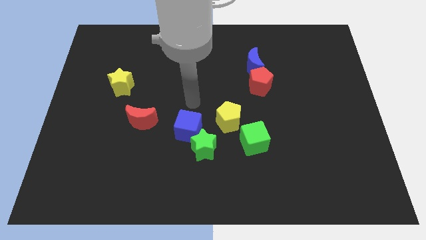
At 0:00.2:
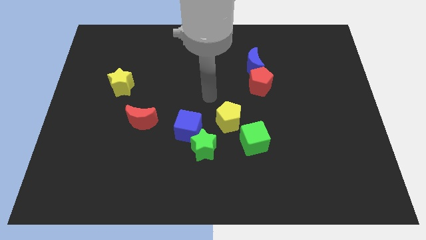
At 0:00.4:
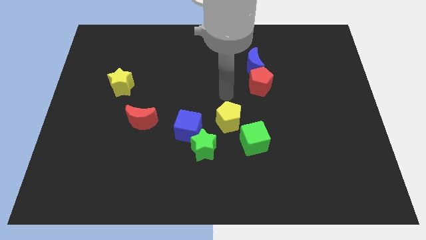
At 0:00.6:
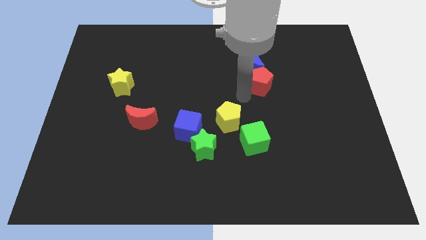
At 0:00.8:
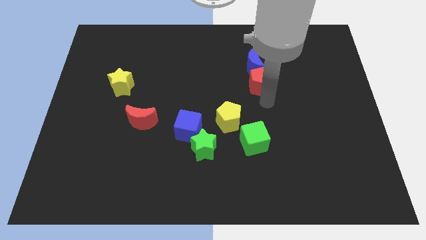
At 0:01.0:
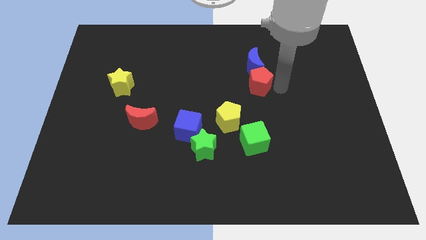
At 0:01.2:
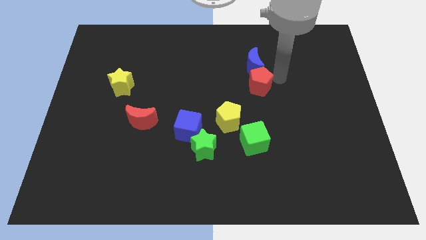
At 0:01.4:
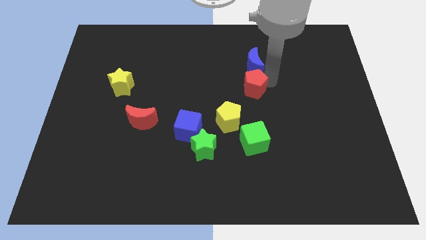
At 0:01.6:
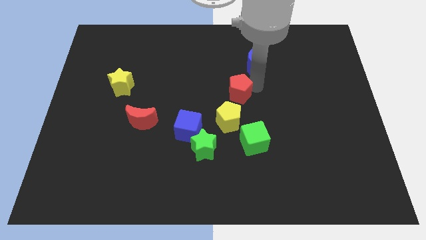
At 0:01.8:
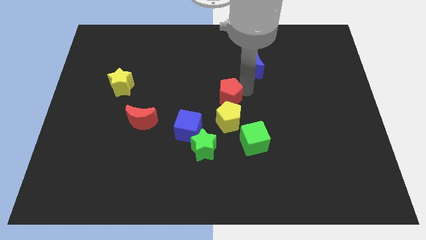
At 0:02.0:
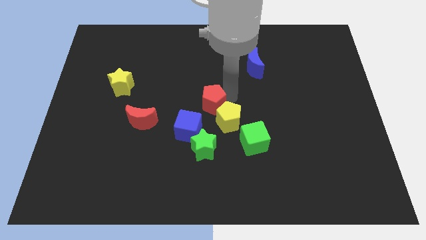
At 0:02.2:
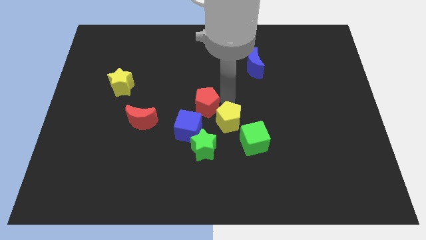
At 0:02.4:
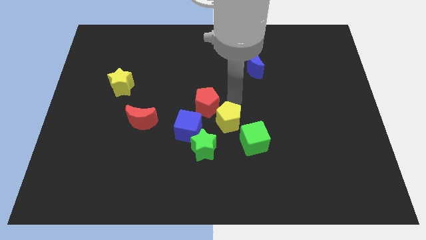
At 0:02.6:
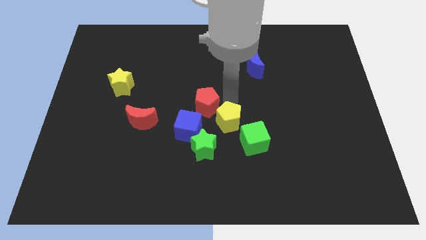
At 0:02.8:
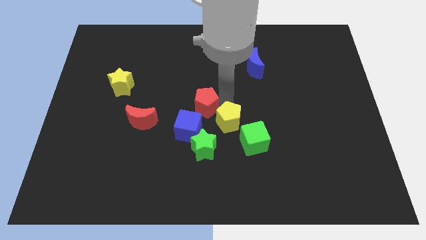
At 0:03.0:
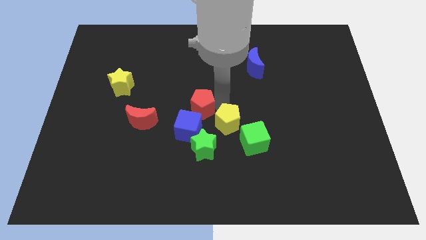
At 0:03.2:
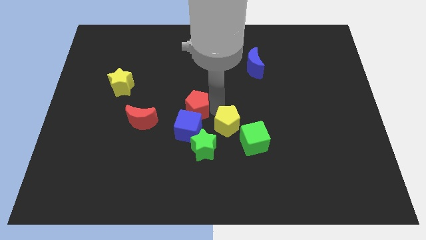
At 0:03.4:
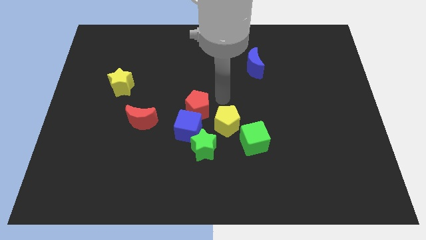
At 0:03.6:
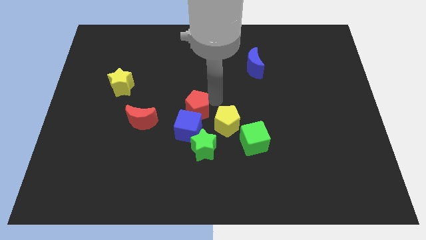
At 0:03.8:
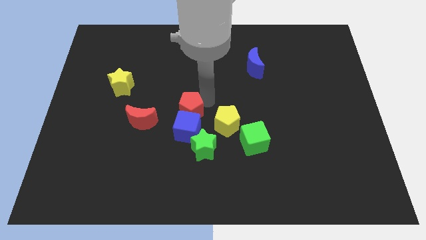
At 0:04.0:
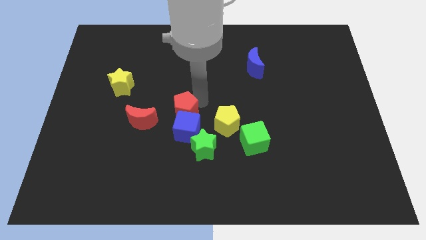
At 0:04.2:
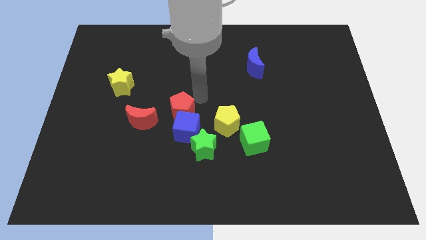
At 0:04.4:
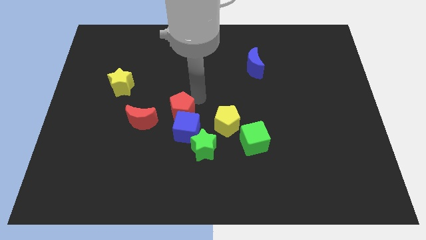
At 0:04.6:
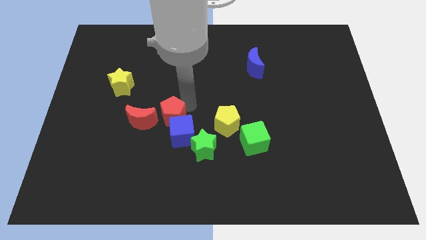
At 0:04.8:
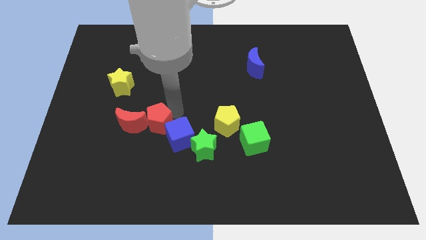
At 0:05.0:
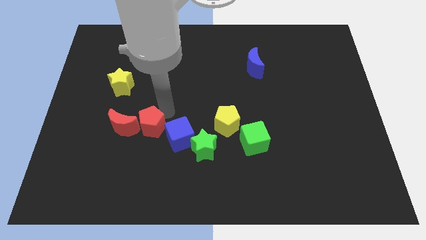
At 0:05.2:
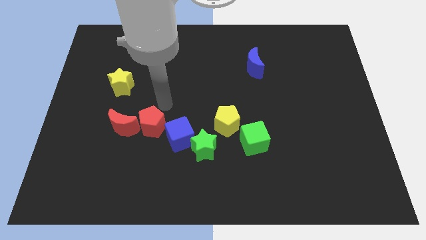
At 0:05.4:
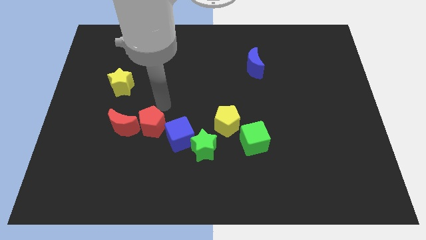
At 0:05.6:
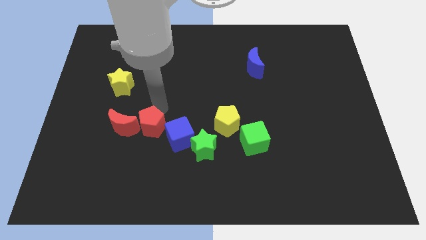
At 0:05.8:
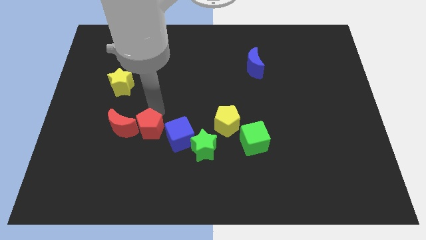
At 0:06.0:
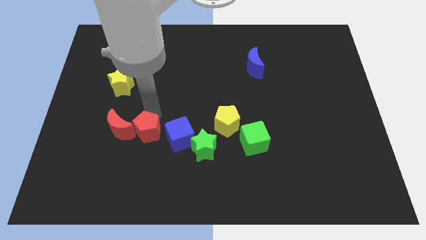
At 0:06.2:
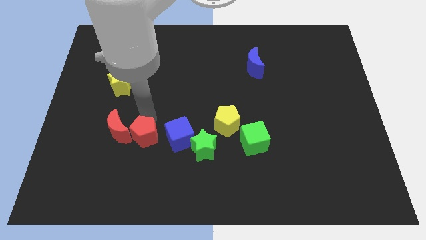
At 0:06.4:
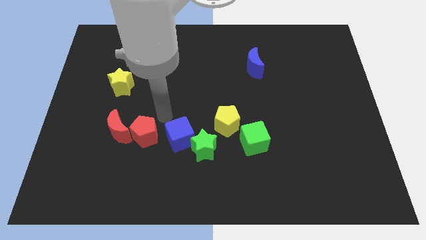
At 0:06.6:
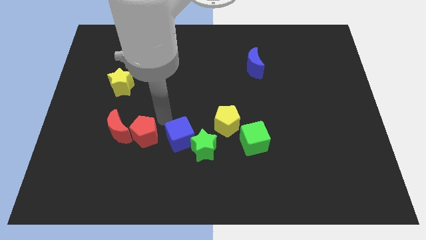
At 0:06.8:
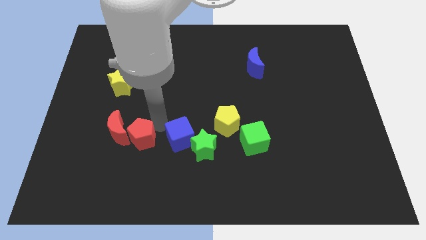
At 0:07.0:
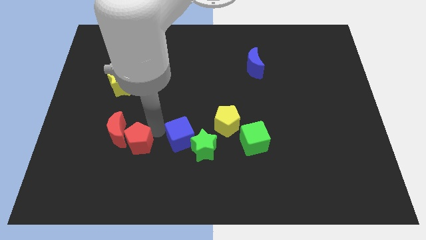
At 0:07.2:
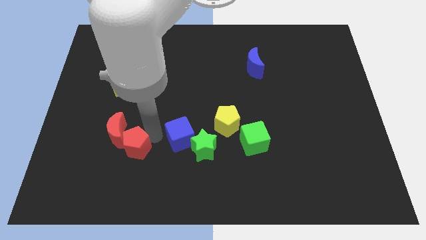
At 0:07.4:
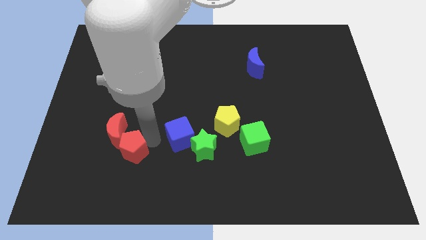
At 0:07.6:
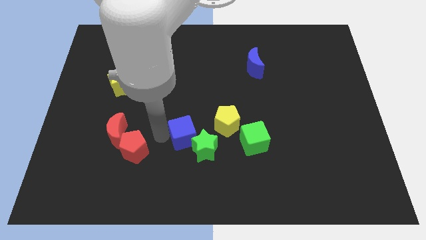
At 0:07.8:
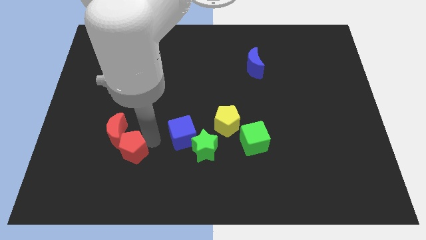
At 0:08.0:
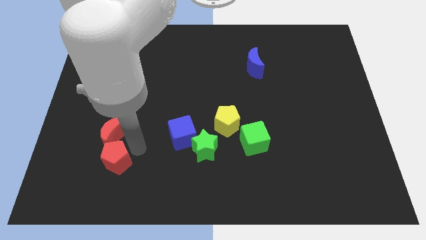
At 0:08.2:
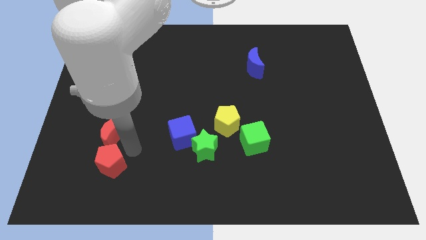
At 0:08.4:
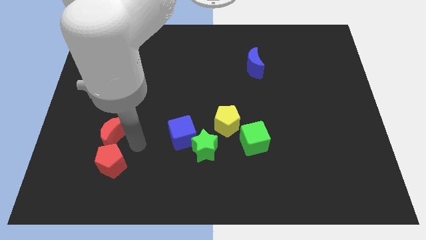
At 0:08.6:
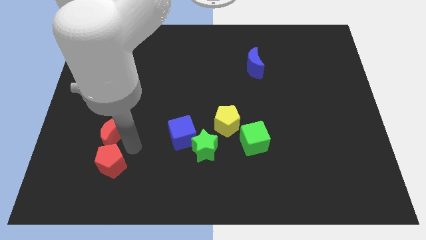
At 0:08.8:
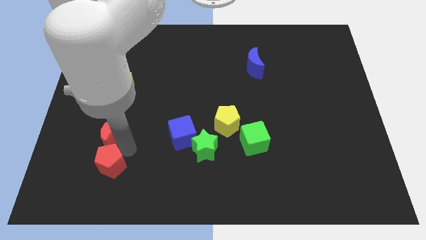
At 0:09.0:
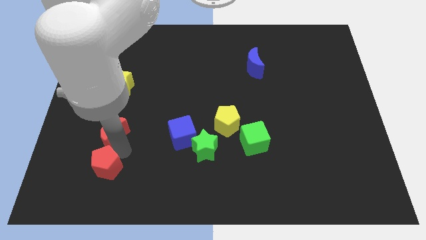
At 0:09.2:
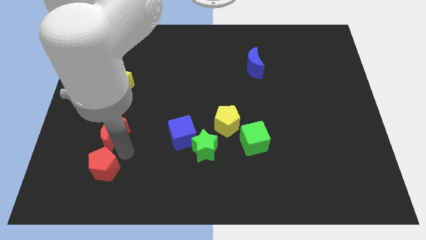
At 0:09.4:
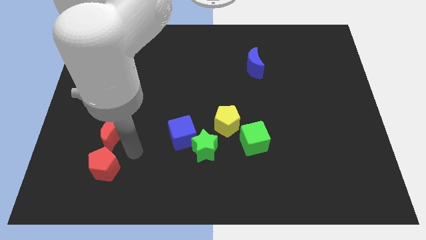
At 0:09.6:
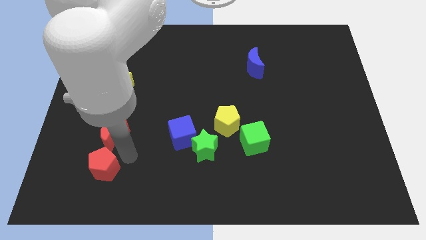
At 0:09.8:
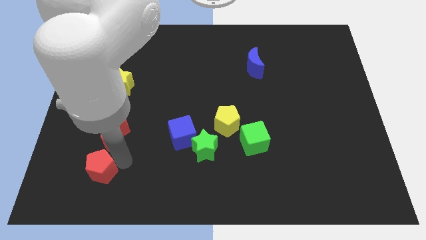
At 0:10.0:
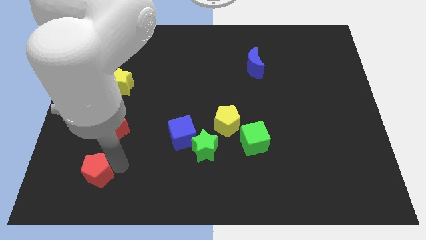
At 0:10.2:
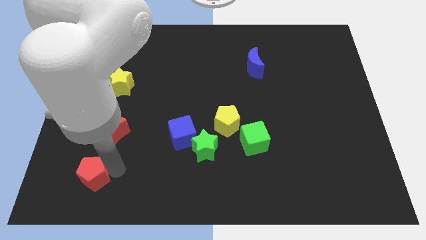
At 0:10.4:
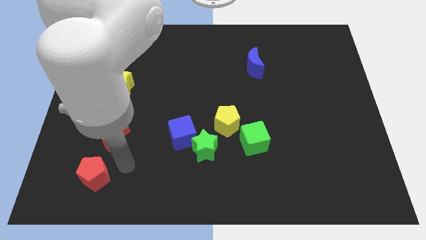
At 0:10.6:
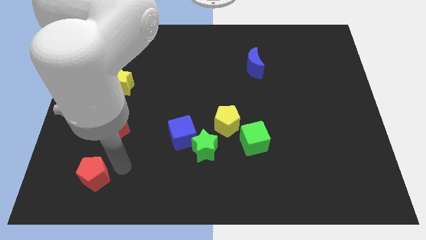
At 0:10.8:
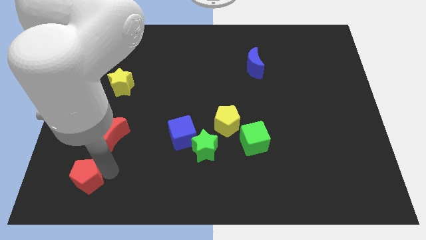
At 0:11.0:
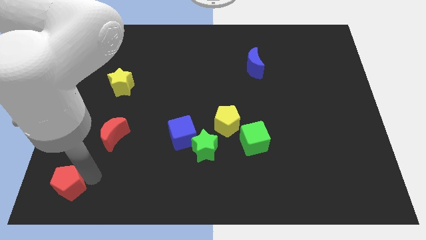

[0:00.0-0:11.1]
push the red pentagon to the bottom left corner

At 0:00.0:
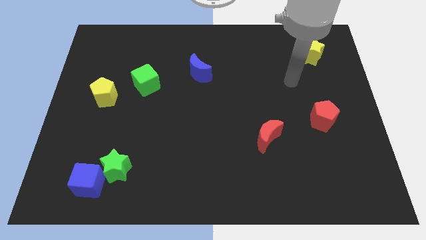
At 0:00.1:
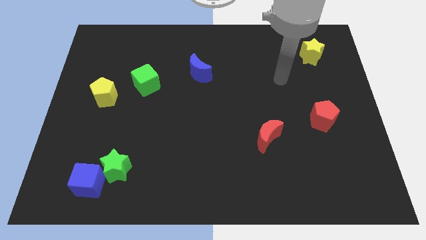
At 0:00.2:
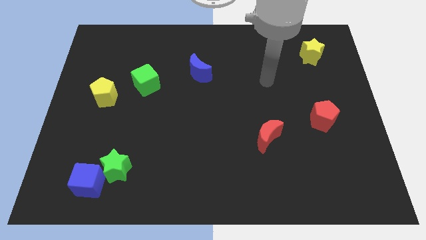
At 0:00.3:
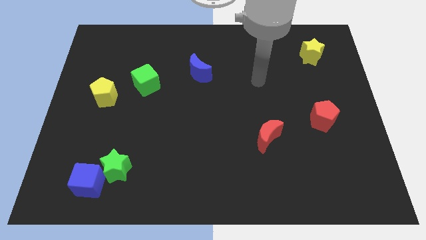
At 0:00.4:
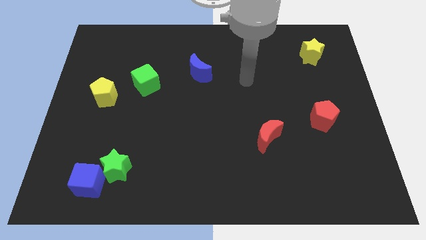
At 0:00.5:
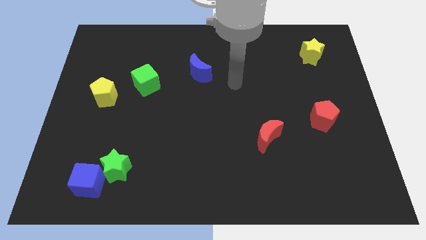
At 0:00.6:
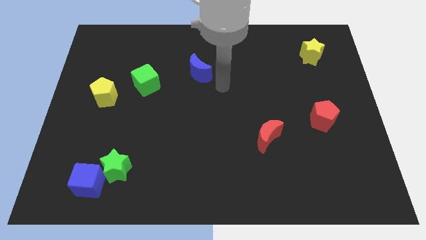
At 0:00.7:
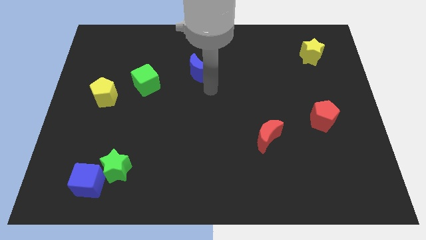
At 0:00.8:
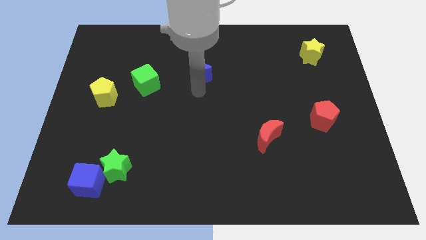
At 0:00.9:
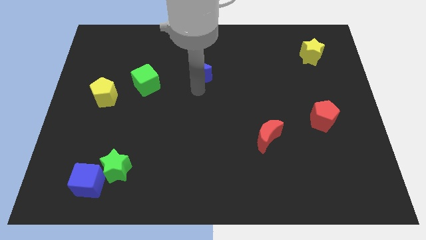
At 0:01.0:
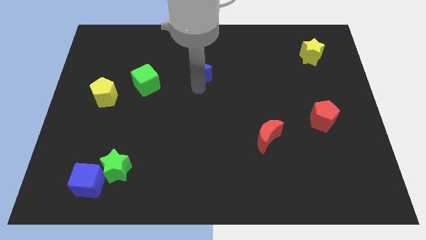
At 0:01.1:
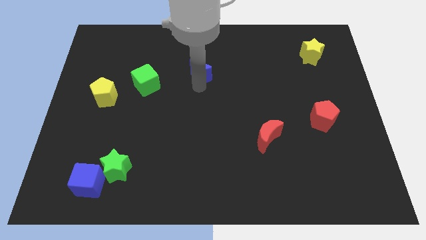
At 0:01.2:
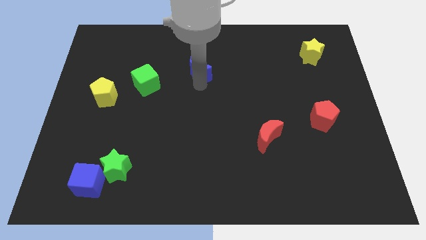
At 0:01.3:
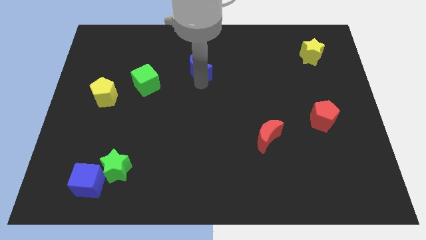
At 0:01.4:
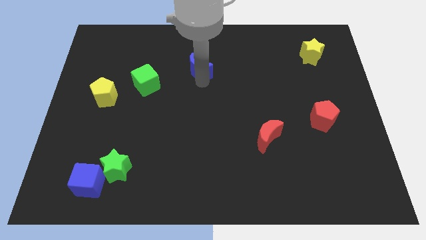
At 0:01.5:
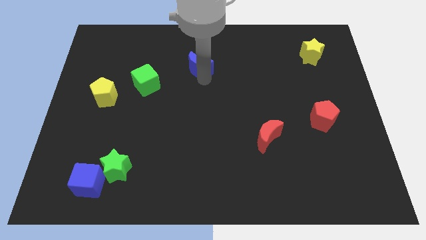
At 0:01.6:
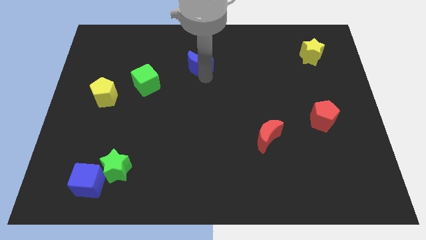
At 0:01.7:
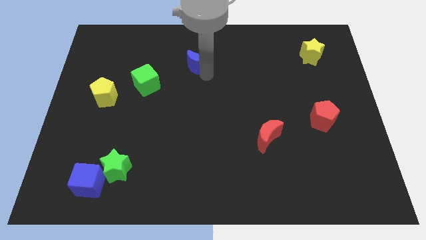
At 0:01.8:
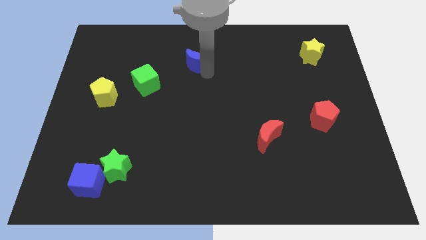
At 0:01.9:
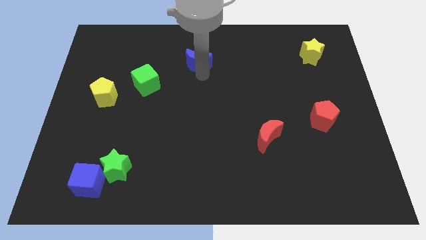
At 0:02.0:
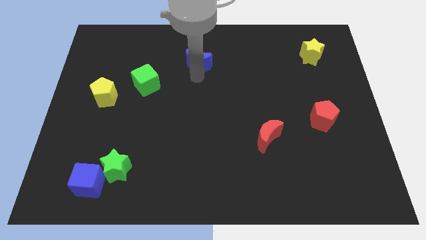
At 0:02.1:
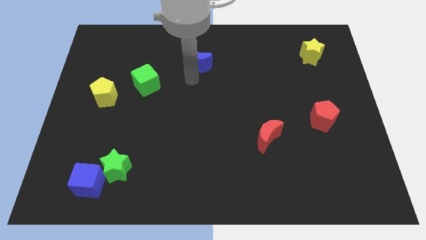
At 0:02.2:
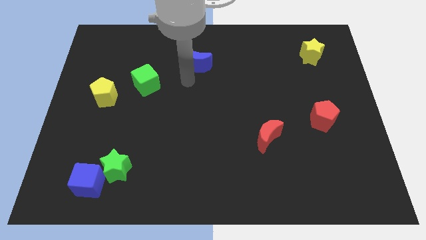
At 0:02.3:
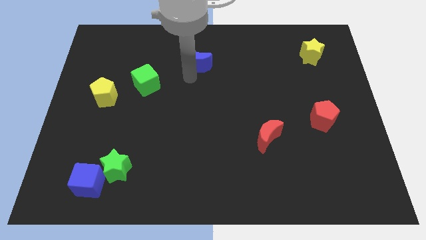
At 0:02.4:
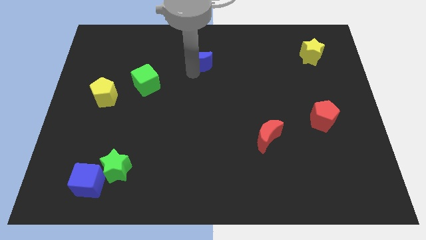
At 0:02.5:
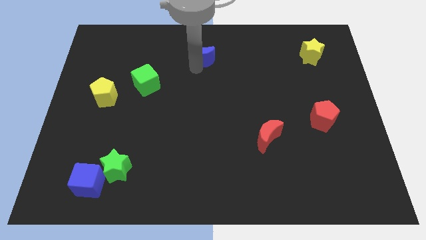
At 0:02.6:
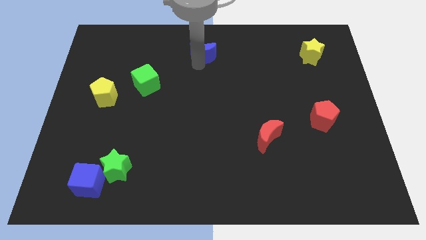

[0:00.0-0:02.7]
put the blue moon to the towards your base
